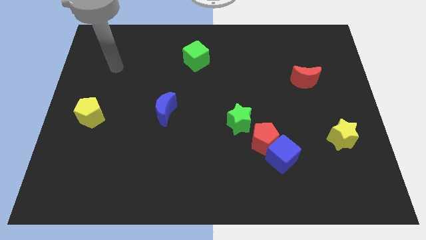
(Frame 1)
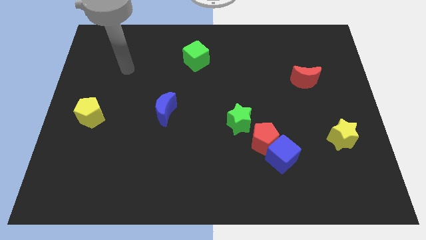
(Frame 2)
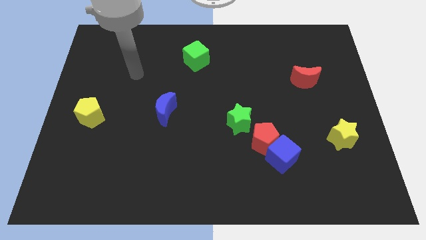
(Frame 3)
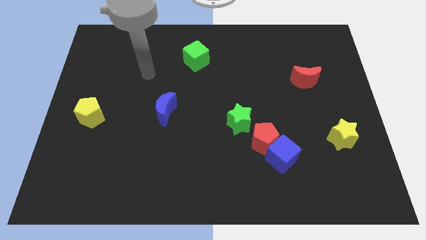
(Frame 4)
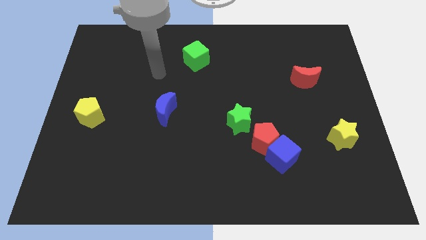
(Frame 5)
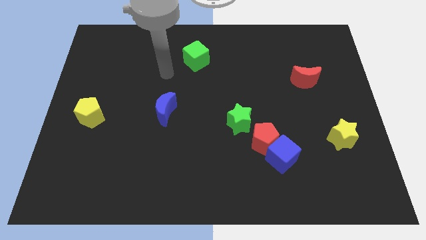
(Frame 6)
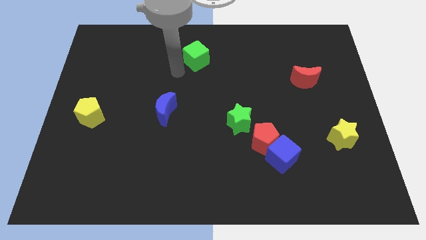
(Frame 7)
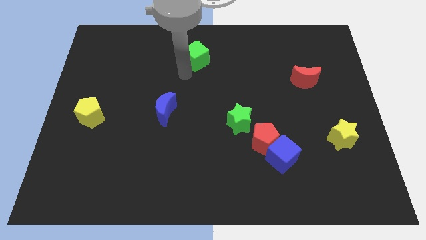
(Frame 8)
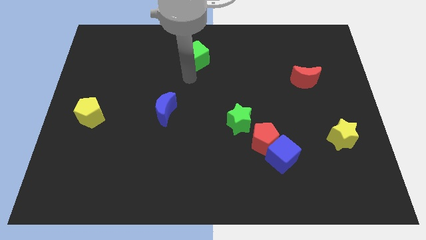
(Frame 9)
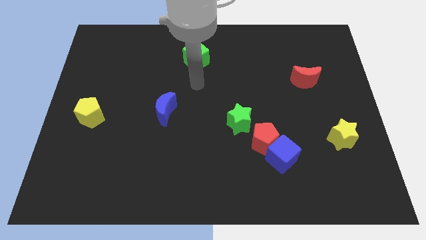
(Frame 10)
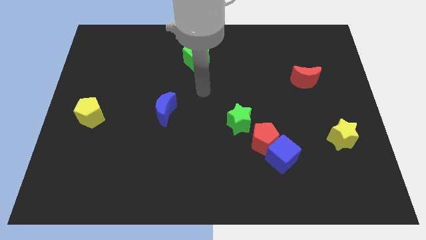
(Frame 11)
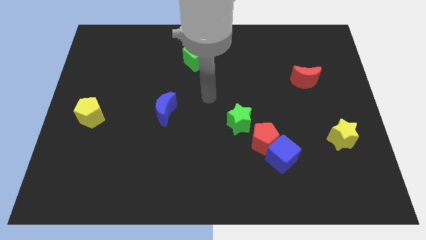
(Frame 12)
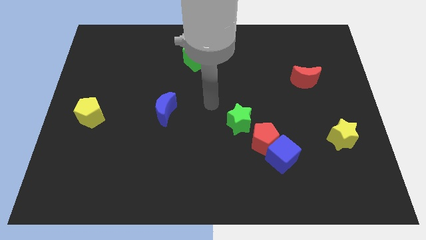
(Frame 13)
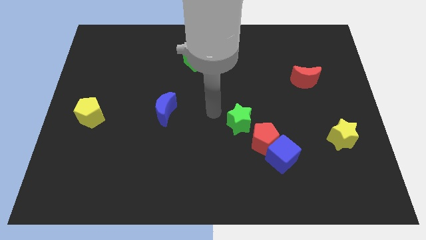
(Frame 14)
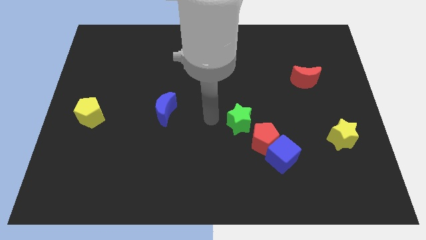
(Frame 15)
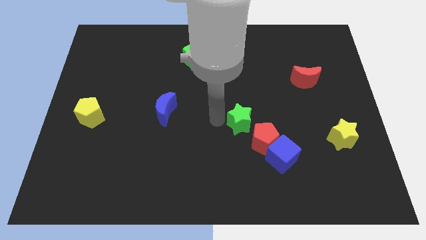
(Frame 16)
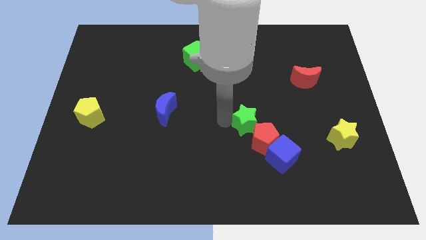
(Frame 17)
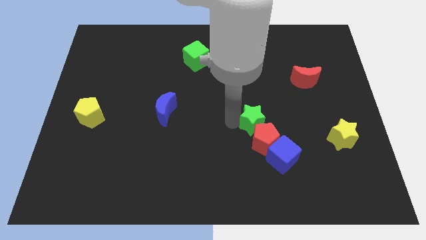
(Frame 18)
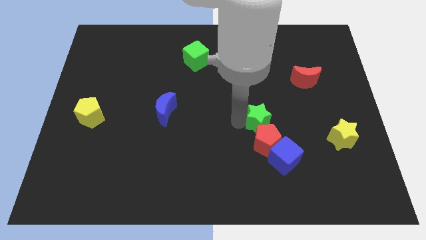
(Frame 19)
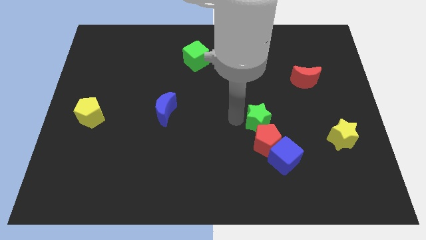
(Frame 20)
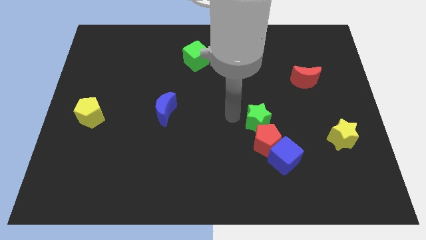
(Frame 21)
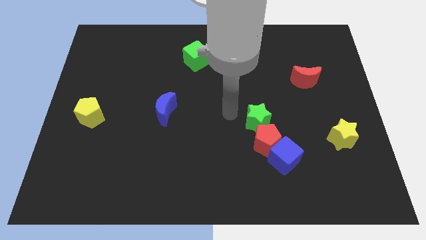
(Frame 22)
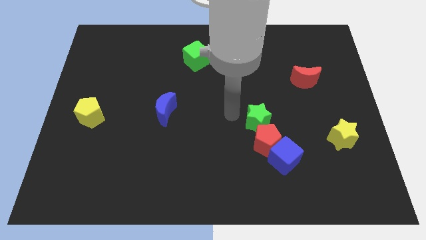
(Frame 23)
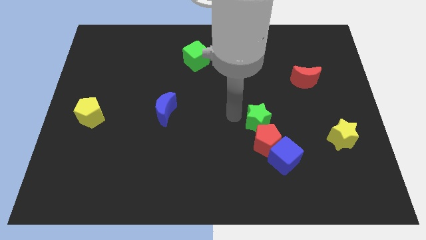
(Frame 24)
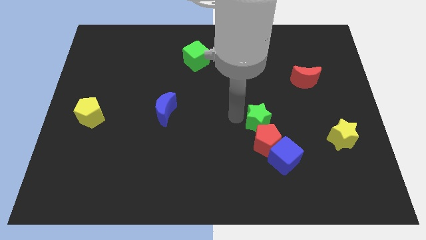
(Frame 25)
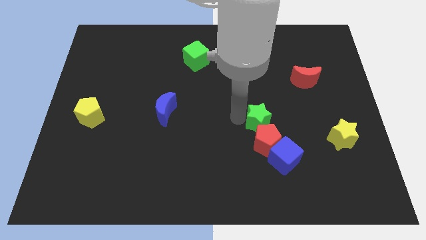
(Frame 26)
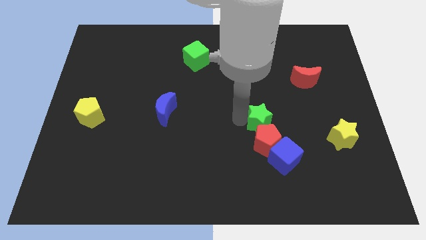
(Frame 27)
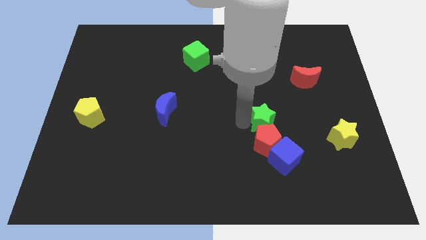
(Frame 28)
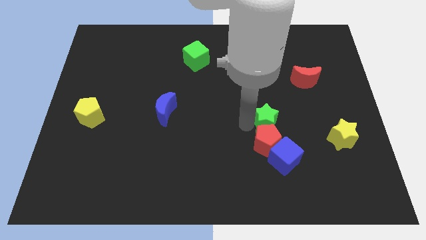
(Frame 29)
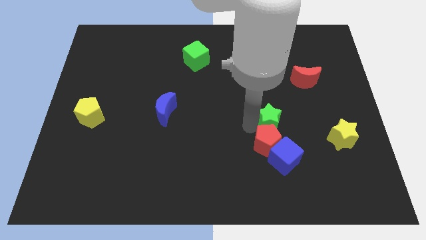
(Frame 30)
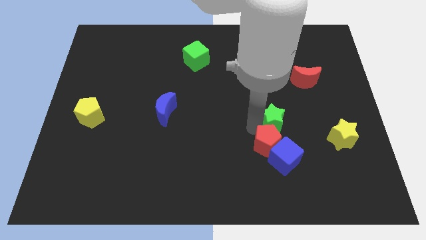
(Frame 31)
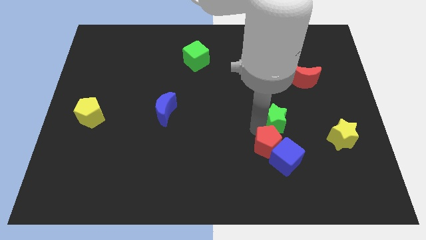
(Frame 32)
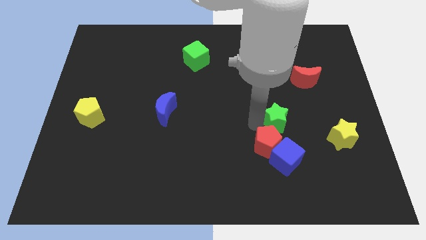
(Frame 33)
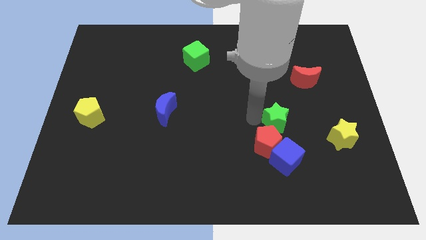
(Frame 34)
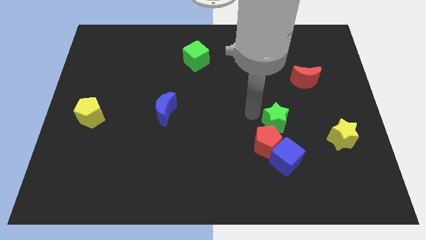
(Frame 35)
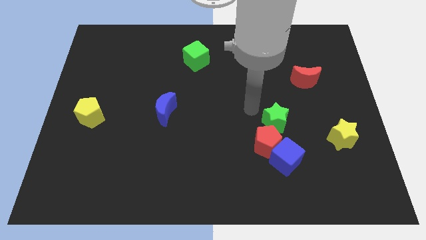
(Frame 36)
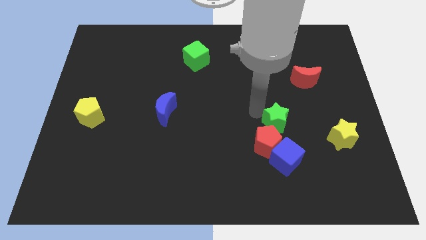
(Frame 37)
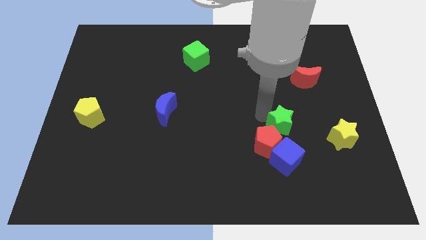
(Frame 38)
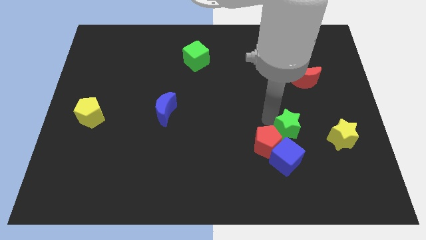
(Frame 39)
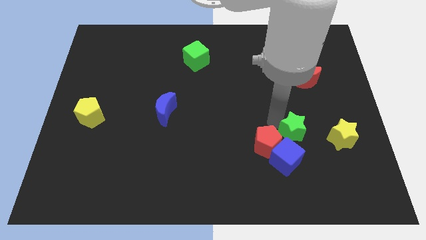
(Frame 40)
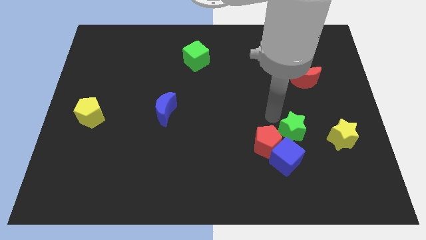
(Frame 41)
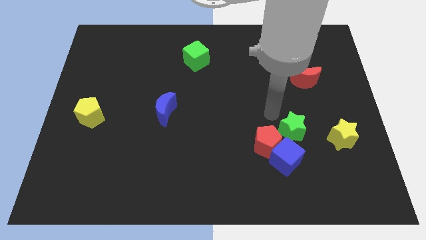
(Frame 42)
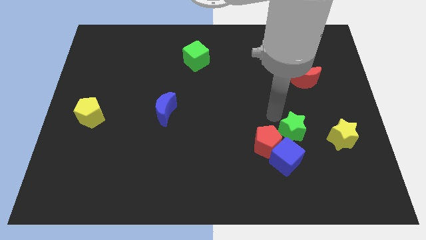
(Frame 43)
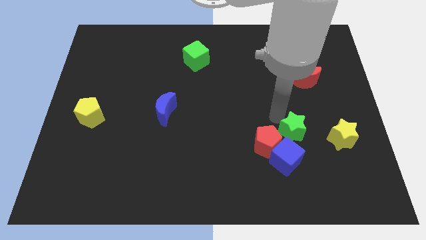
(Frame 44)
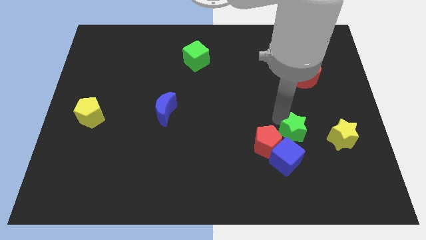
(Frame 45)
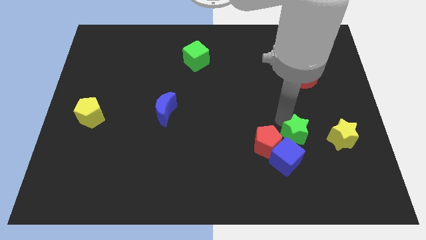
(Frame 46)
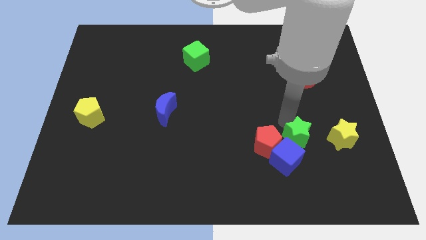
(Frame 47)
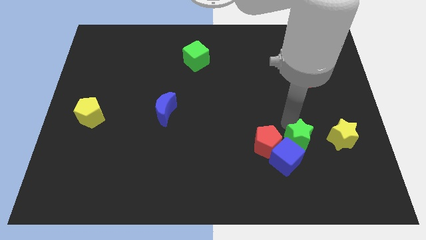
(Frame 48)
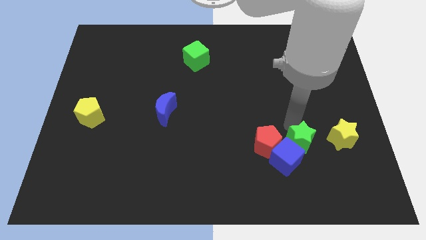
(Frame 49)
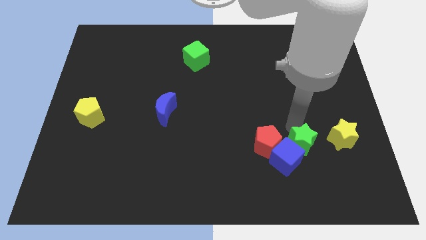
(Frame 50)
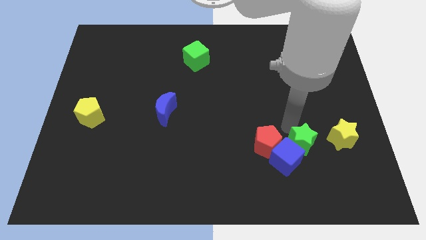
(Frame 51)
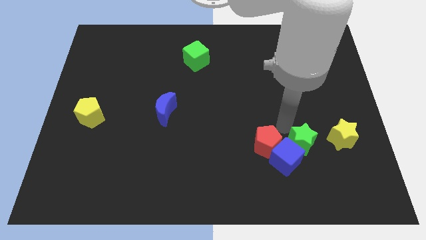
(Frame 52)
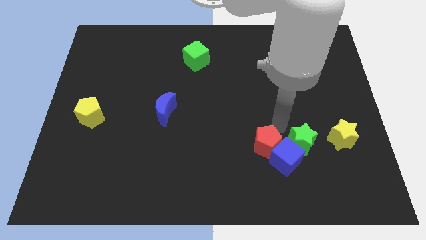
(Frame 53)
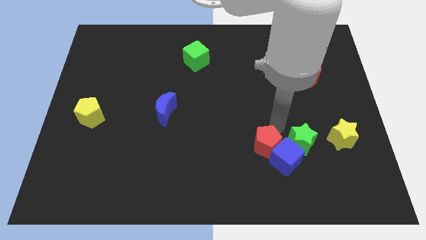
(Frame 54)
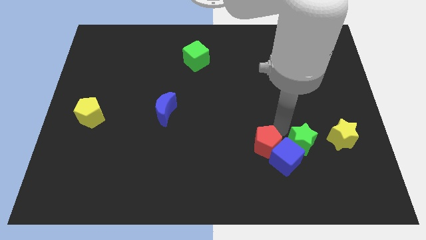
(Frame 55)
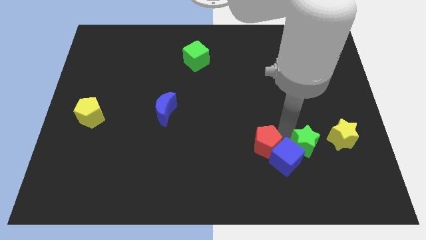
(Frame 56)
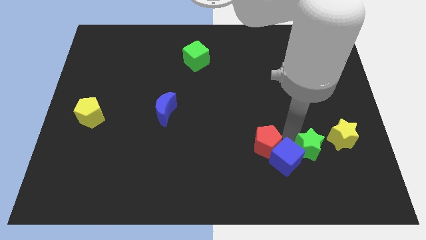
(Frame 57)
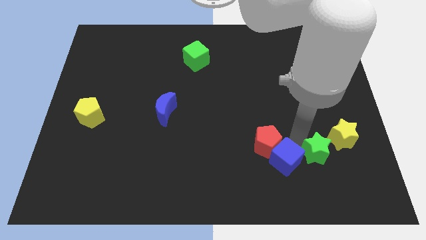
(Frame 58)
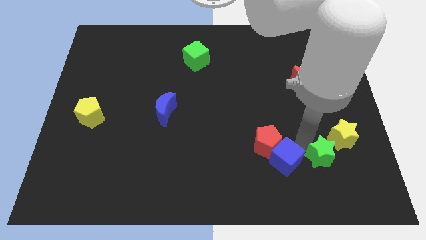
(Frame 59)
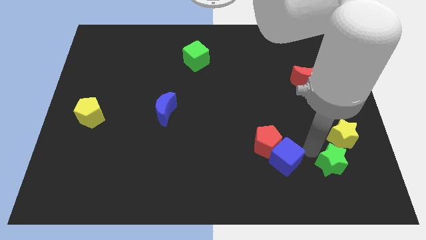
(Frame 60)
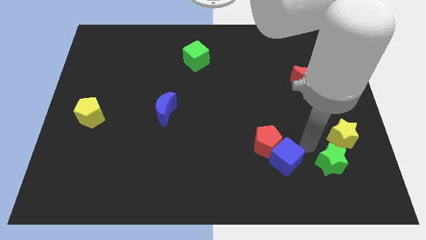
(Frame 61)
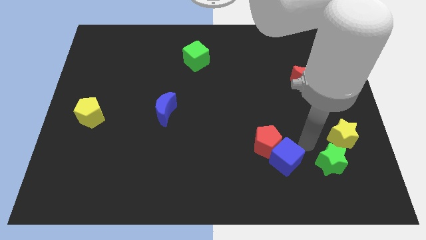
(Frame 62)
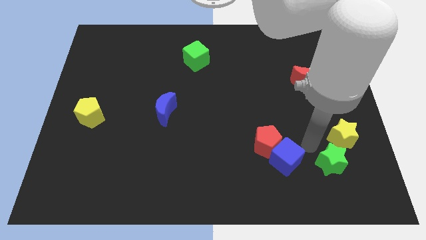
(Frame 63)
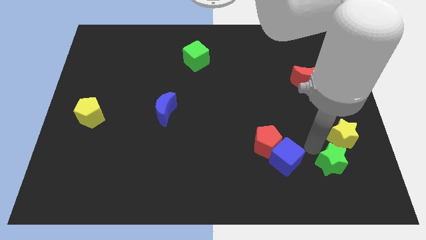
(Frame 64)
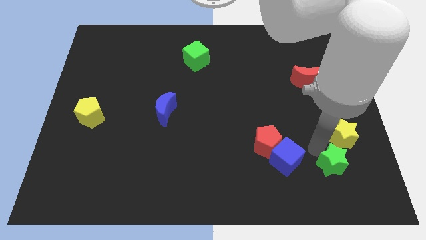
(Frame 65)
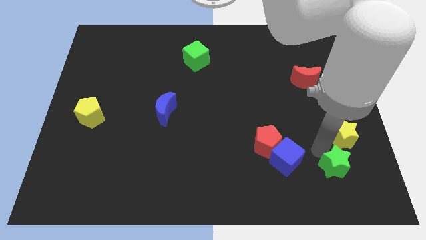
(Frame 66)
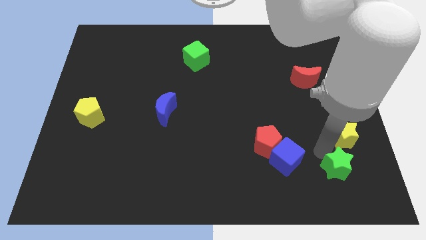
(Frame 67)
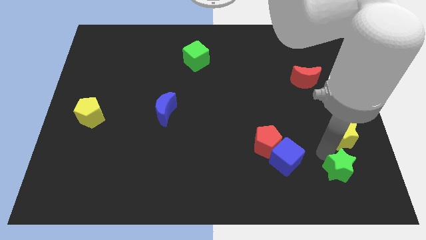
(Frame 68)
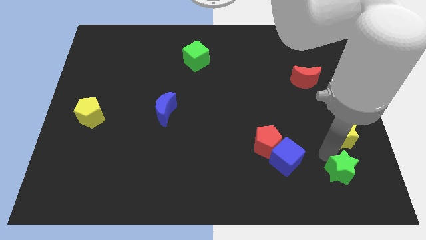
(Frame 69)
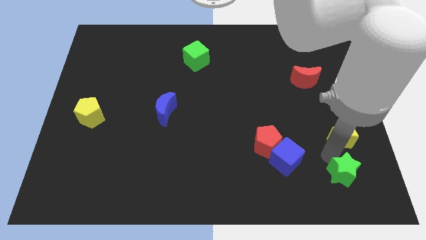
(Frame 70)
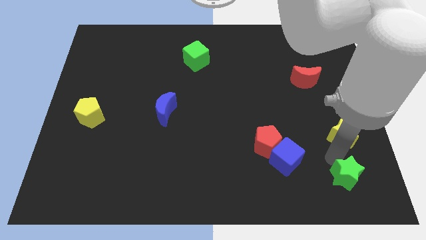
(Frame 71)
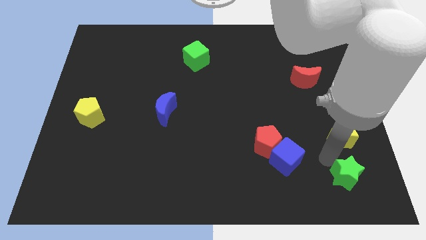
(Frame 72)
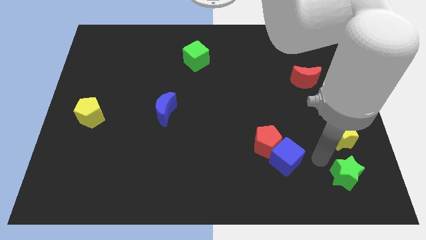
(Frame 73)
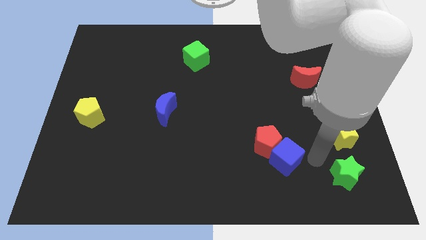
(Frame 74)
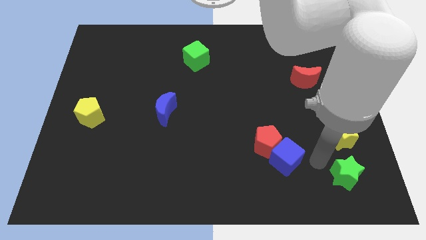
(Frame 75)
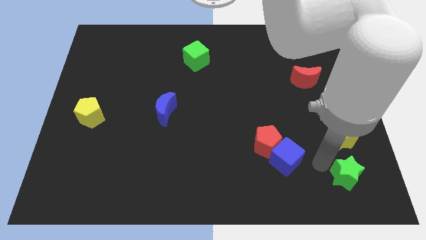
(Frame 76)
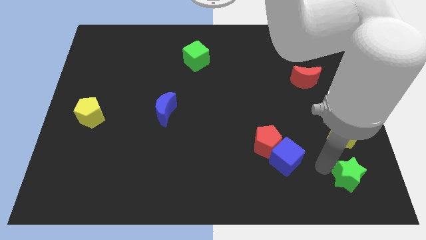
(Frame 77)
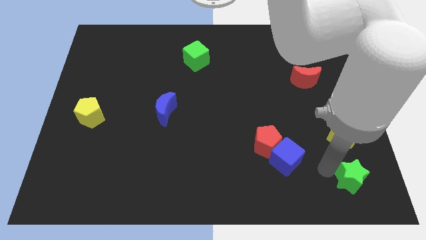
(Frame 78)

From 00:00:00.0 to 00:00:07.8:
move the green star to the bottom right of the board
